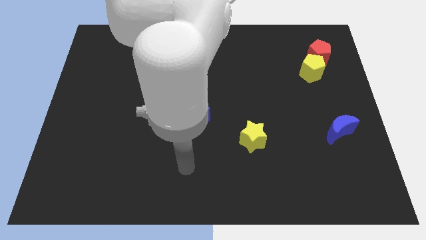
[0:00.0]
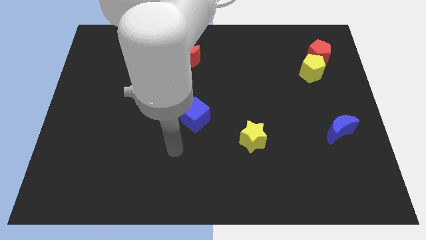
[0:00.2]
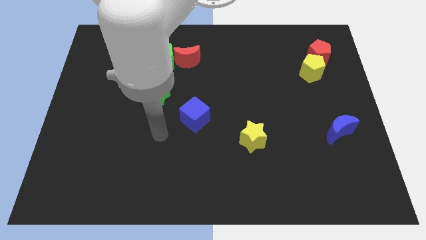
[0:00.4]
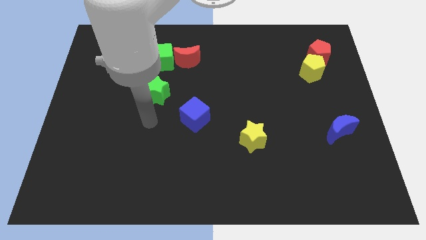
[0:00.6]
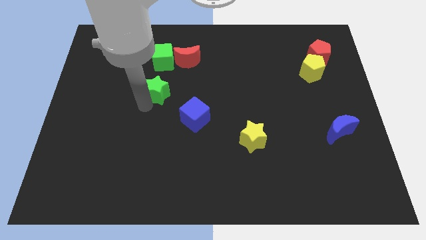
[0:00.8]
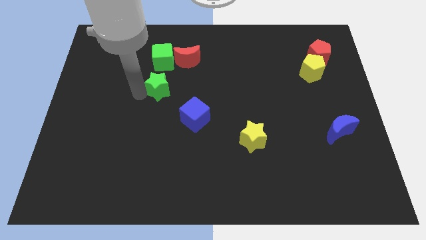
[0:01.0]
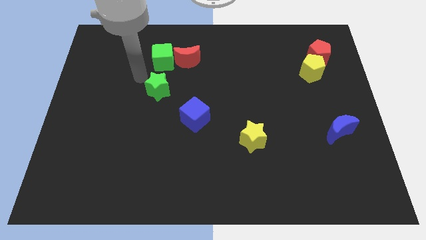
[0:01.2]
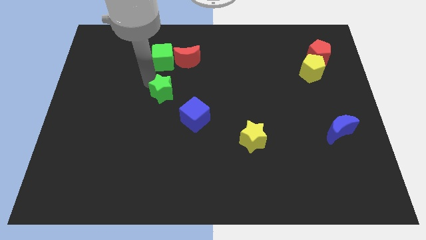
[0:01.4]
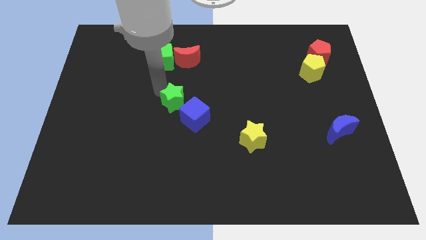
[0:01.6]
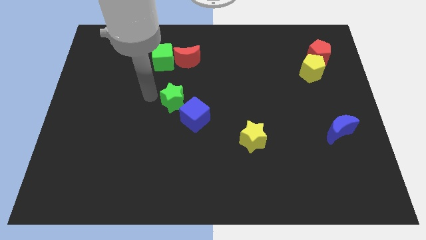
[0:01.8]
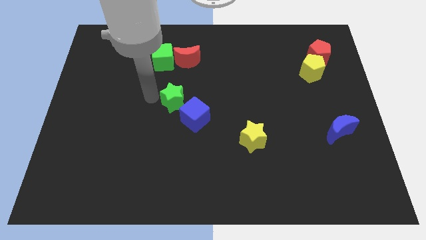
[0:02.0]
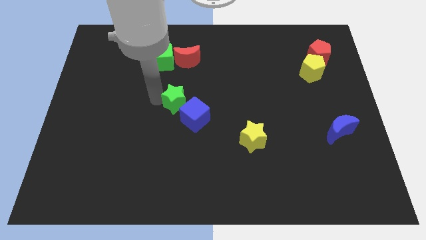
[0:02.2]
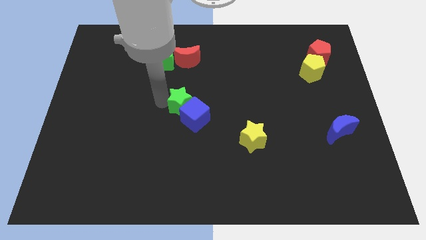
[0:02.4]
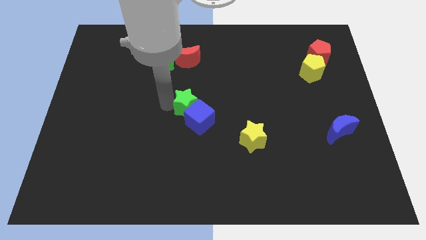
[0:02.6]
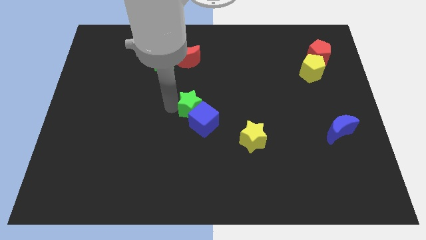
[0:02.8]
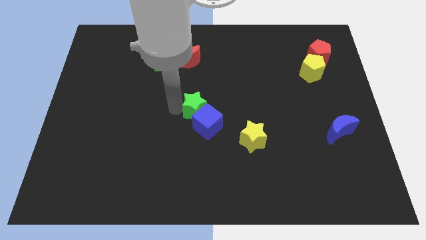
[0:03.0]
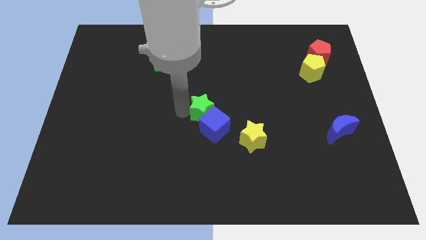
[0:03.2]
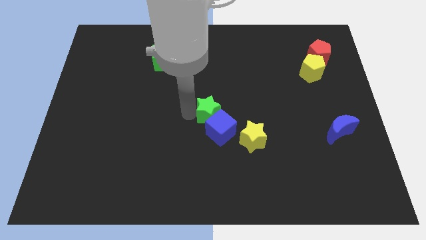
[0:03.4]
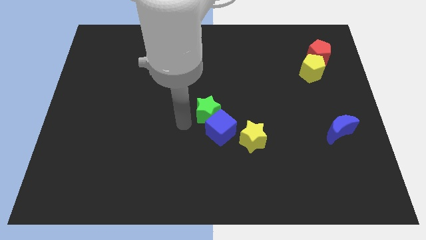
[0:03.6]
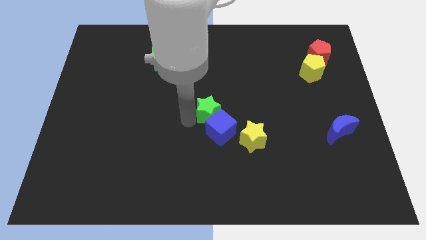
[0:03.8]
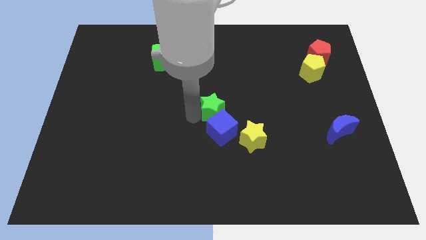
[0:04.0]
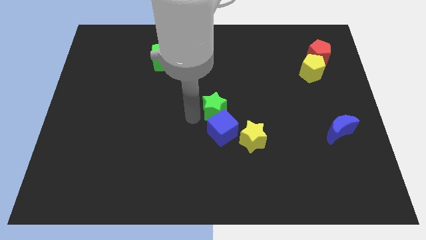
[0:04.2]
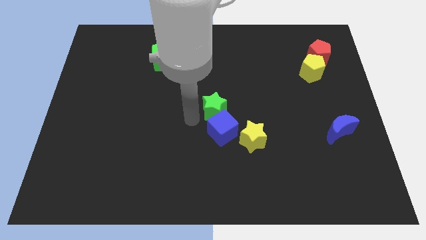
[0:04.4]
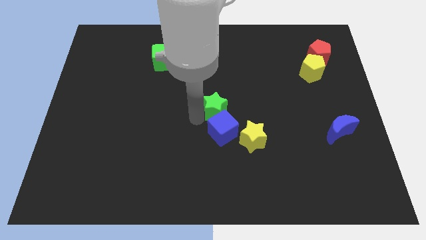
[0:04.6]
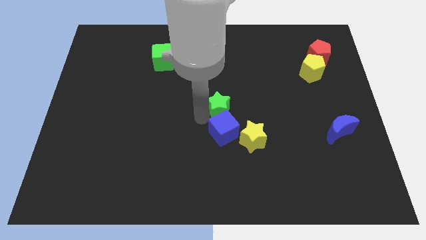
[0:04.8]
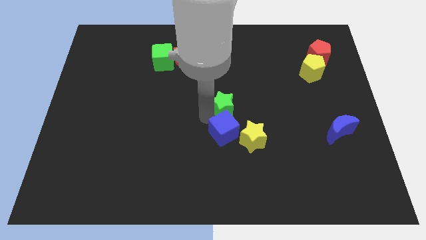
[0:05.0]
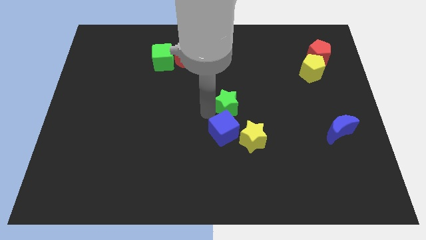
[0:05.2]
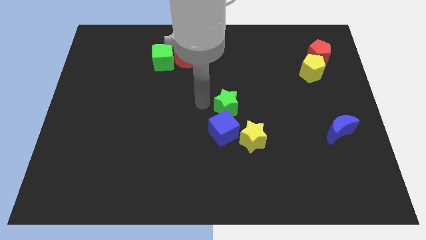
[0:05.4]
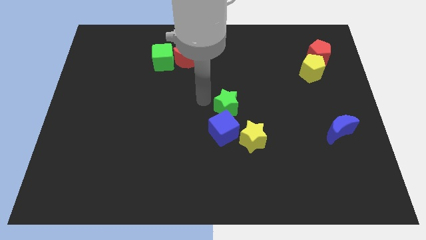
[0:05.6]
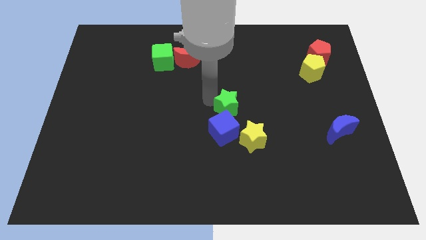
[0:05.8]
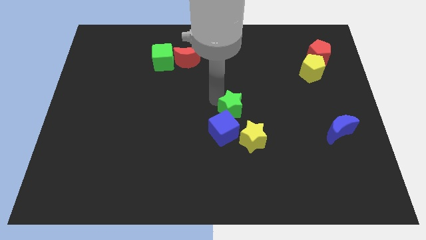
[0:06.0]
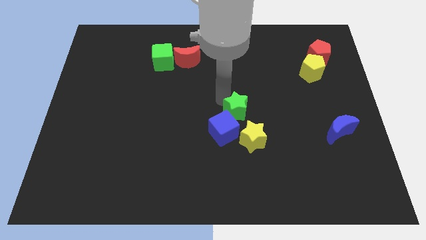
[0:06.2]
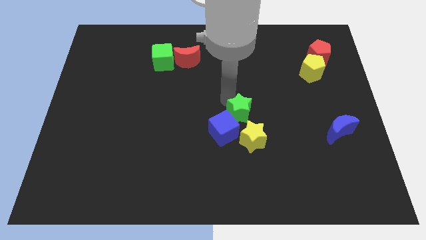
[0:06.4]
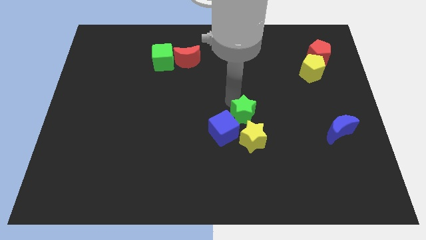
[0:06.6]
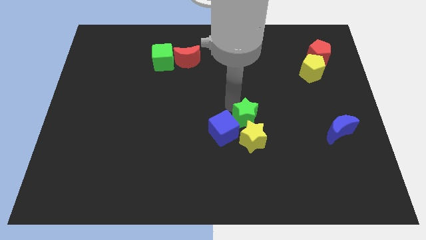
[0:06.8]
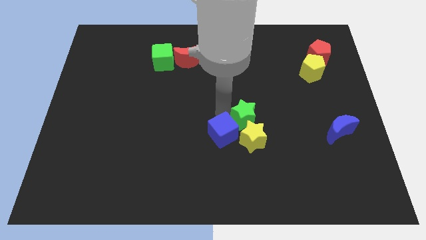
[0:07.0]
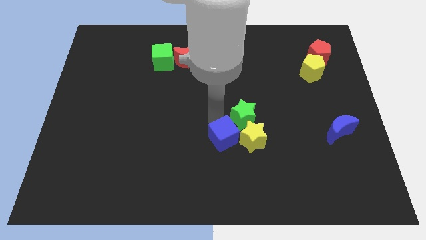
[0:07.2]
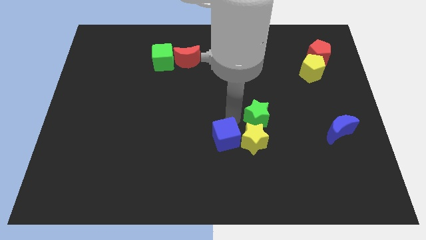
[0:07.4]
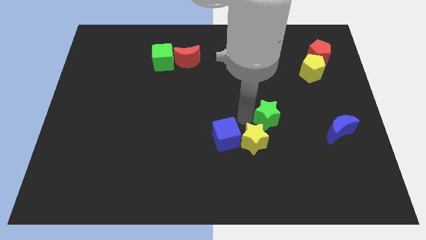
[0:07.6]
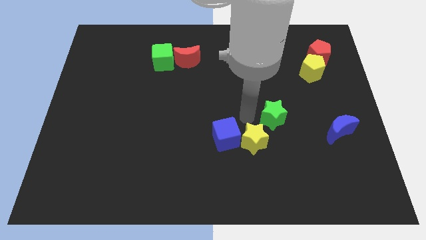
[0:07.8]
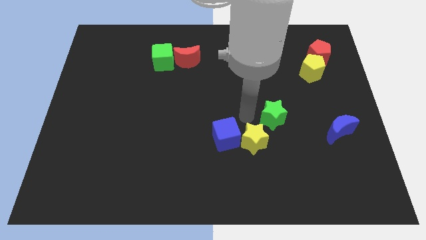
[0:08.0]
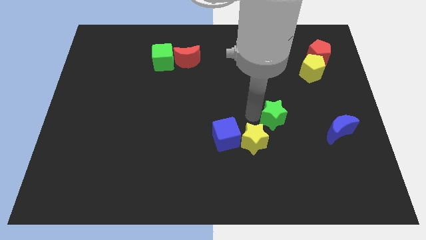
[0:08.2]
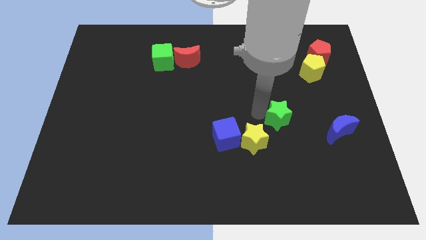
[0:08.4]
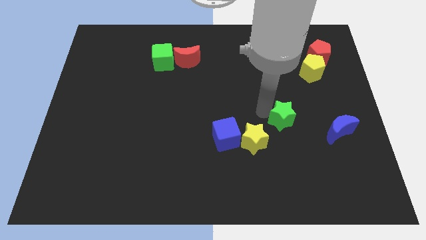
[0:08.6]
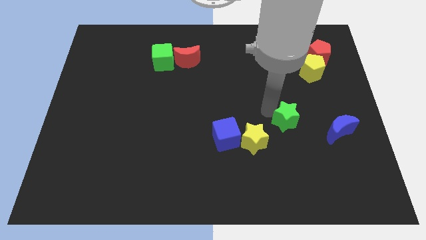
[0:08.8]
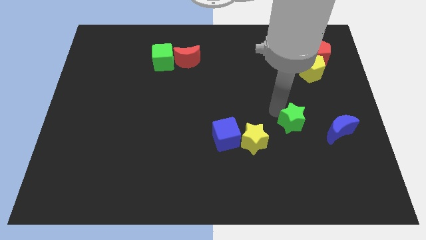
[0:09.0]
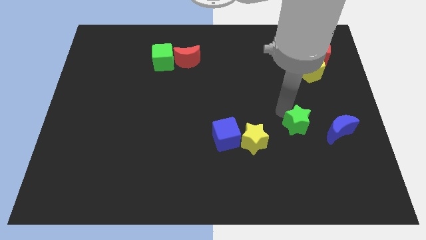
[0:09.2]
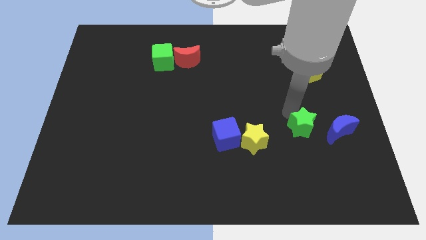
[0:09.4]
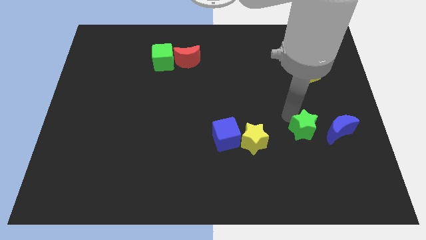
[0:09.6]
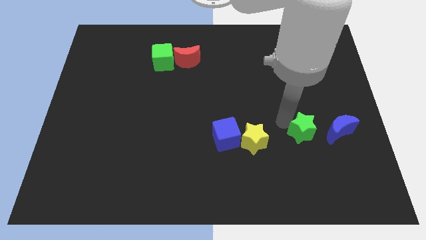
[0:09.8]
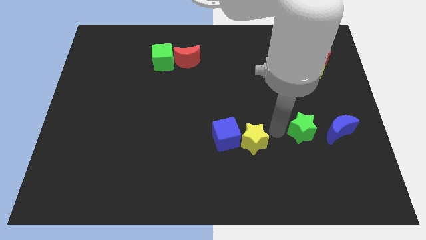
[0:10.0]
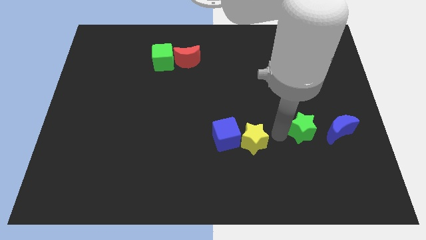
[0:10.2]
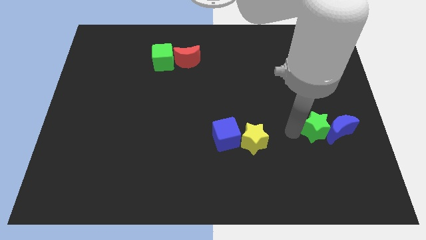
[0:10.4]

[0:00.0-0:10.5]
slide the green star to the blue moon

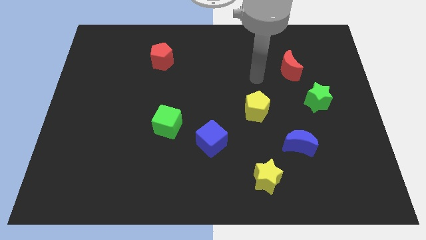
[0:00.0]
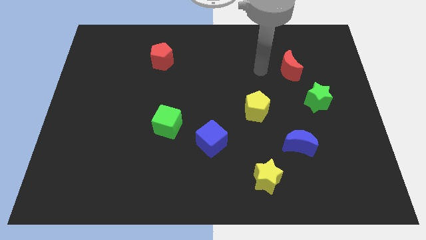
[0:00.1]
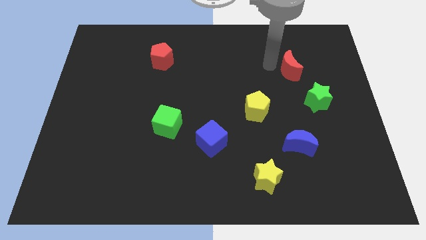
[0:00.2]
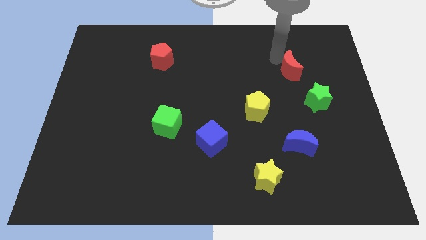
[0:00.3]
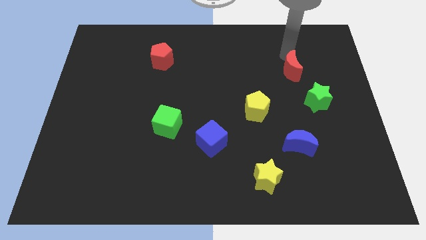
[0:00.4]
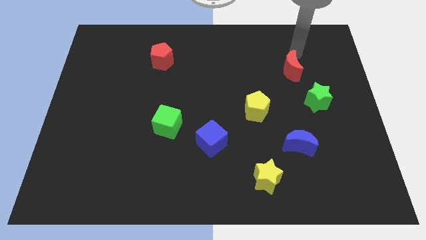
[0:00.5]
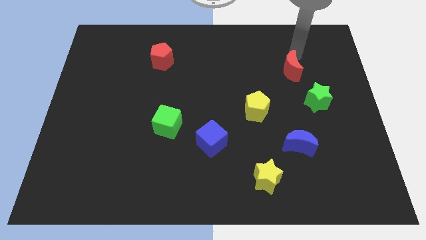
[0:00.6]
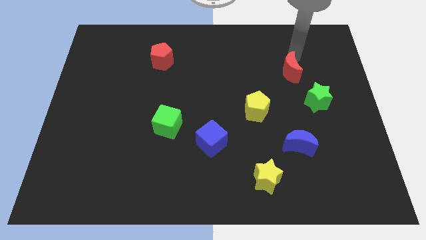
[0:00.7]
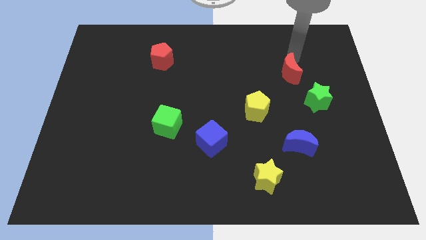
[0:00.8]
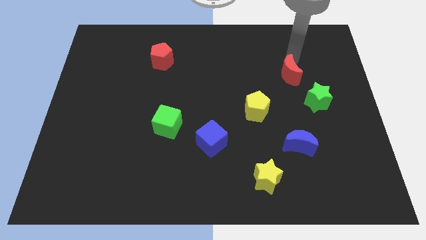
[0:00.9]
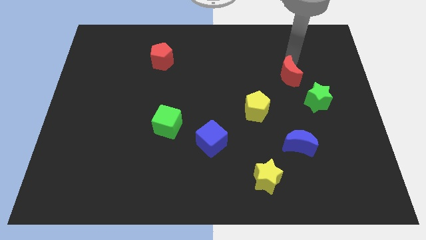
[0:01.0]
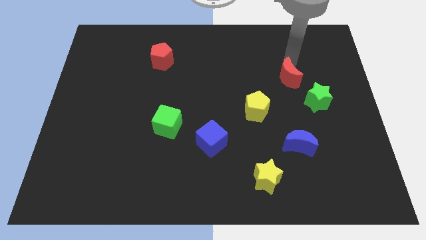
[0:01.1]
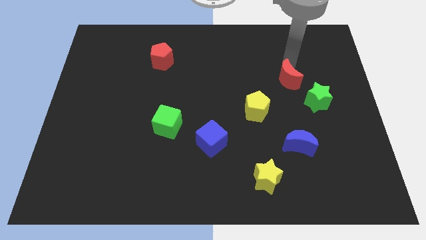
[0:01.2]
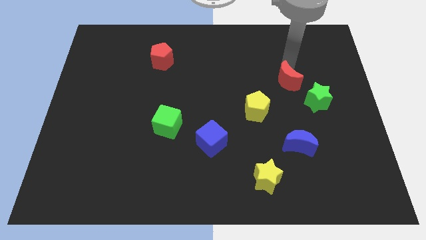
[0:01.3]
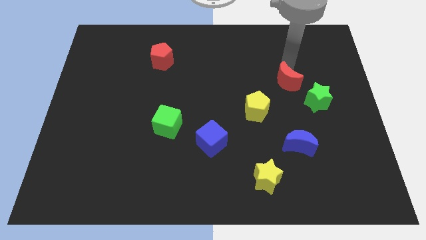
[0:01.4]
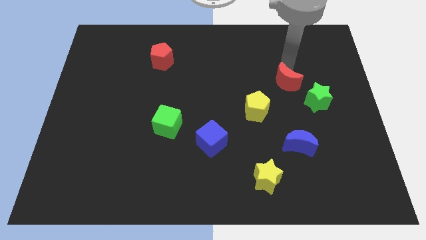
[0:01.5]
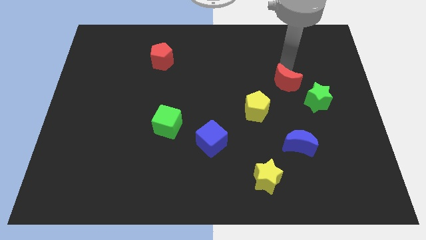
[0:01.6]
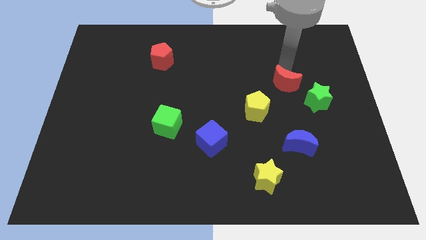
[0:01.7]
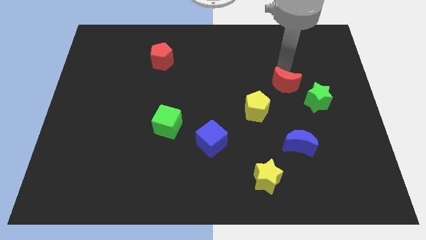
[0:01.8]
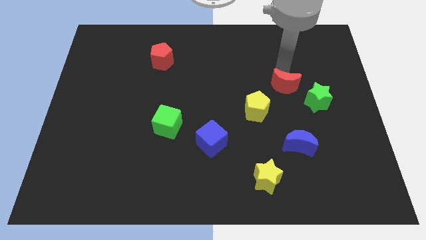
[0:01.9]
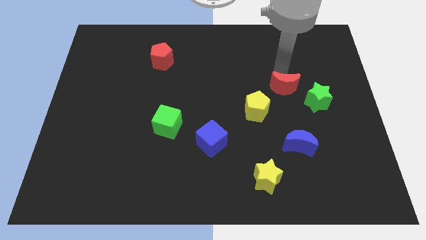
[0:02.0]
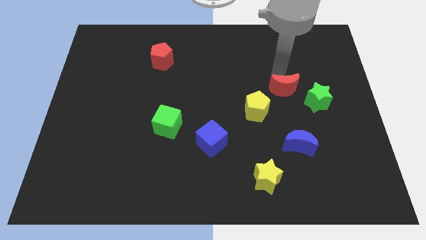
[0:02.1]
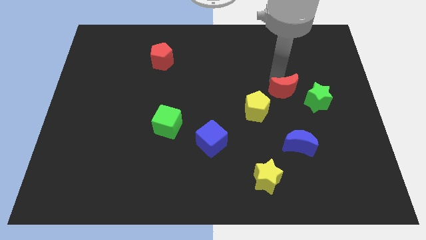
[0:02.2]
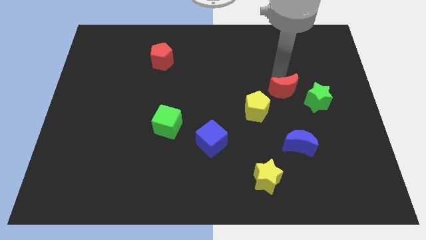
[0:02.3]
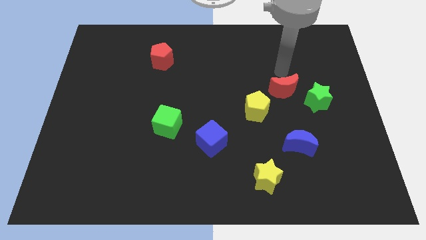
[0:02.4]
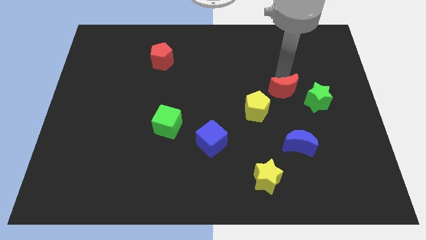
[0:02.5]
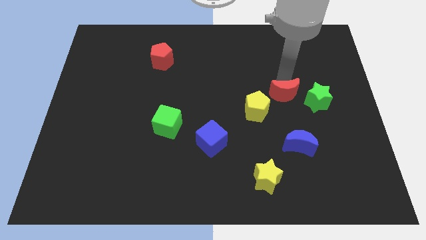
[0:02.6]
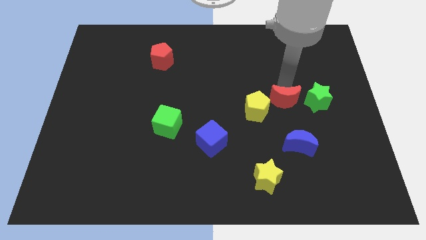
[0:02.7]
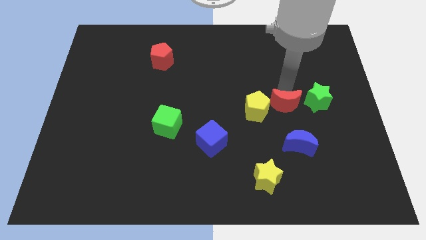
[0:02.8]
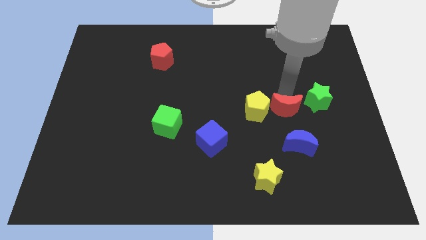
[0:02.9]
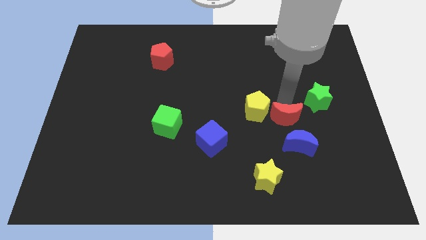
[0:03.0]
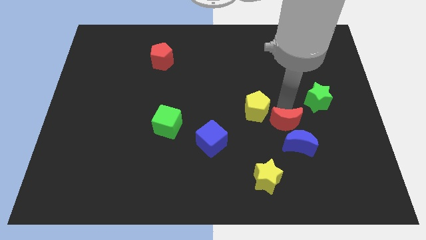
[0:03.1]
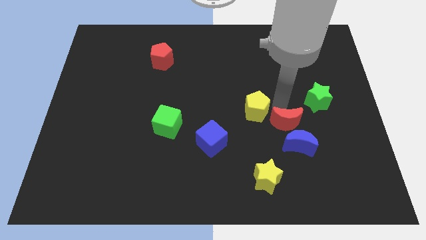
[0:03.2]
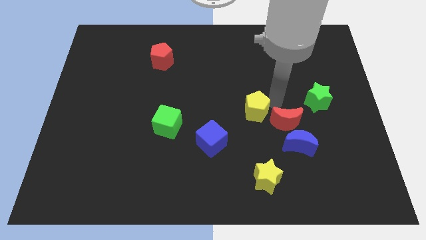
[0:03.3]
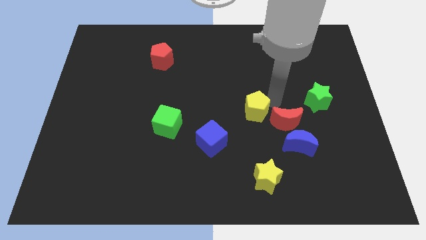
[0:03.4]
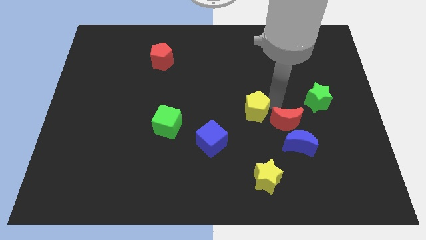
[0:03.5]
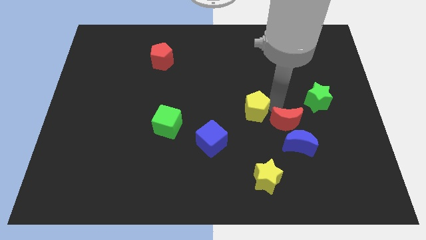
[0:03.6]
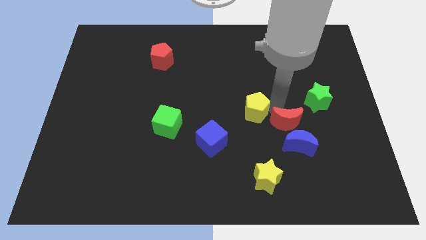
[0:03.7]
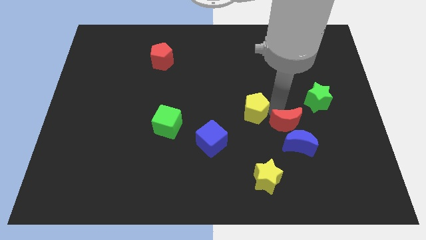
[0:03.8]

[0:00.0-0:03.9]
slide the red moon to the blue moon
